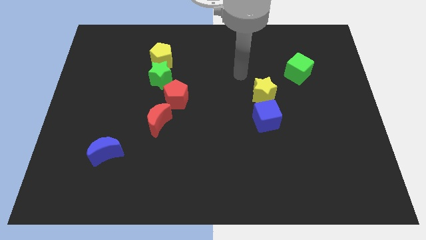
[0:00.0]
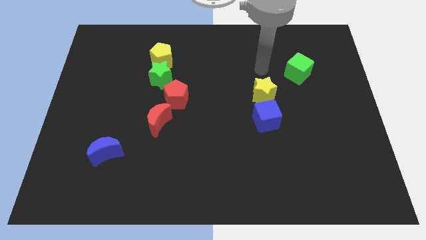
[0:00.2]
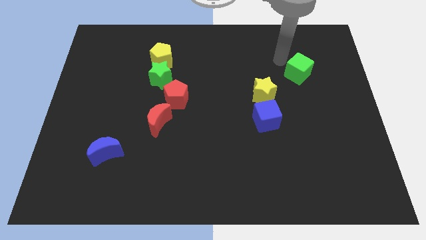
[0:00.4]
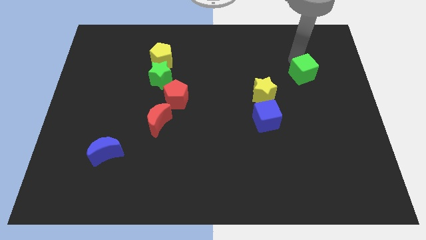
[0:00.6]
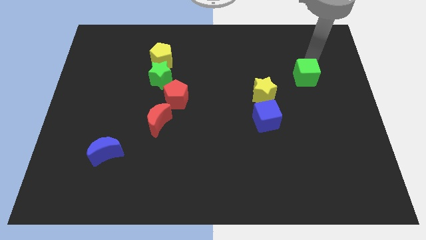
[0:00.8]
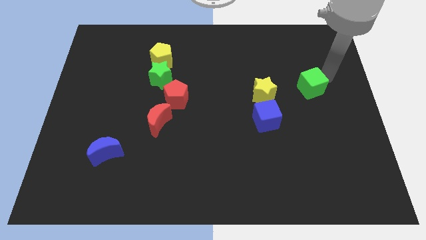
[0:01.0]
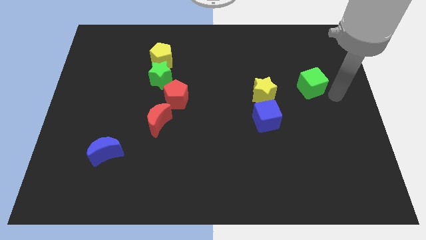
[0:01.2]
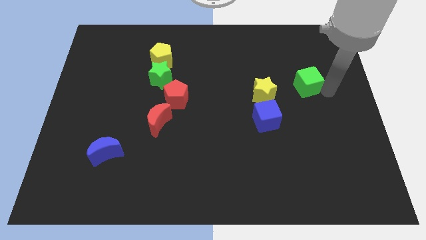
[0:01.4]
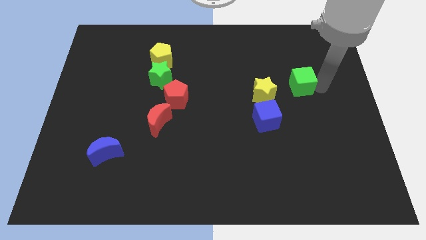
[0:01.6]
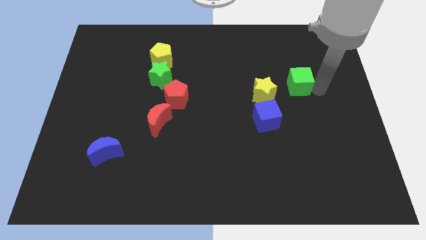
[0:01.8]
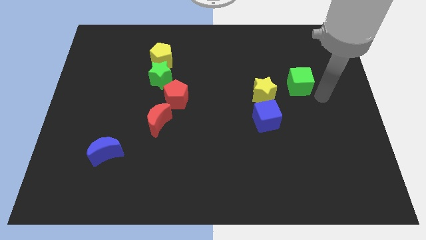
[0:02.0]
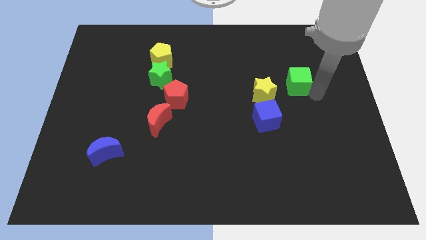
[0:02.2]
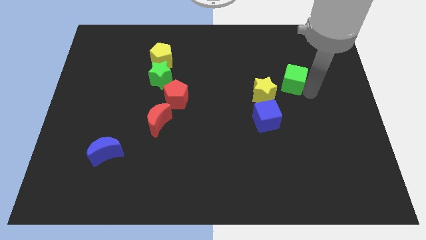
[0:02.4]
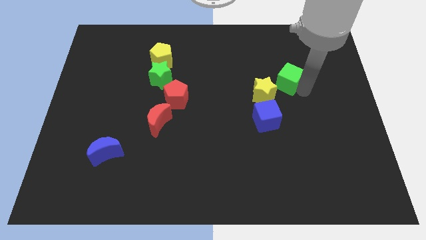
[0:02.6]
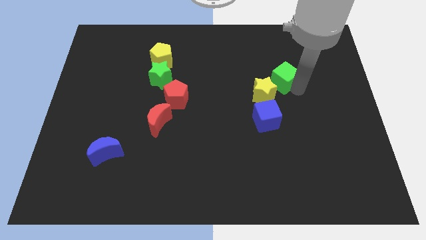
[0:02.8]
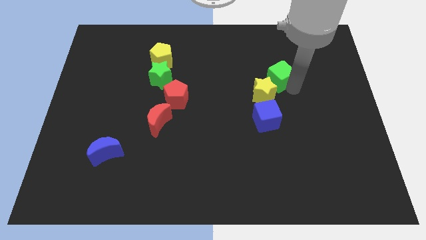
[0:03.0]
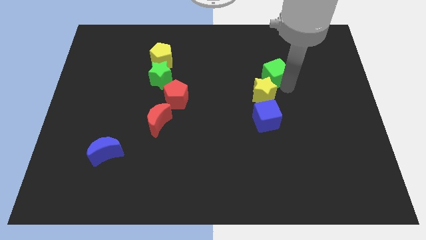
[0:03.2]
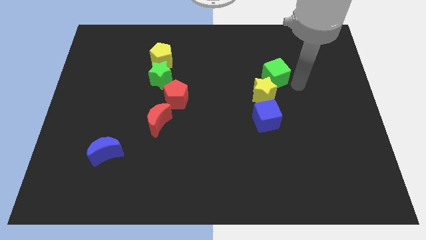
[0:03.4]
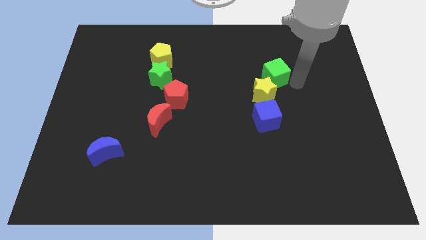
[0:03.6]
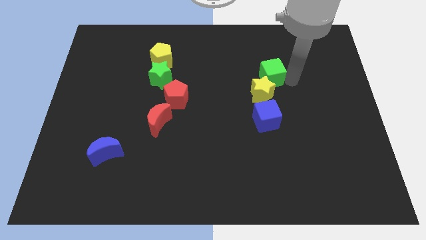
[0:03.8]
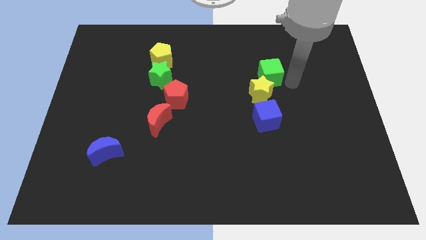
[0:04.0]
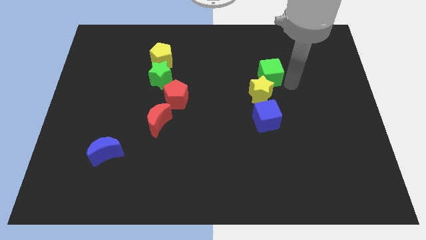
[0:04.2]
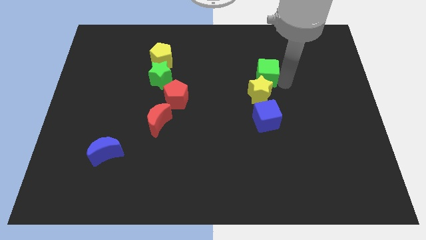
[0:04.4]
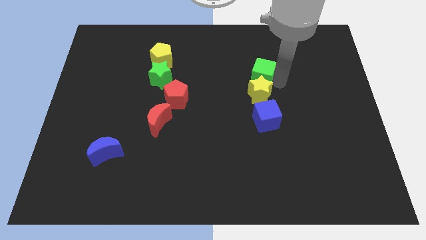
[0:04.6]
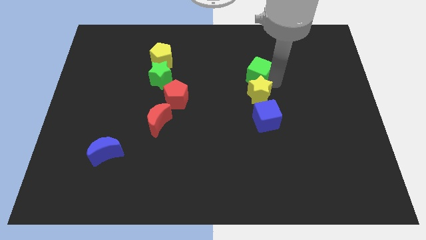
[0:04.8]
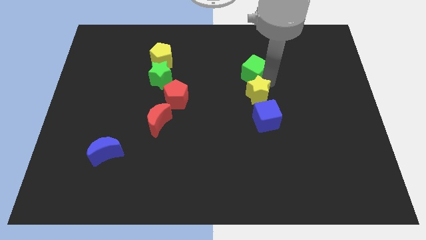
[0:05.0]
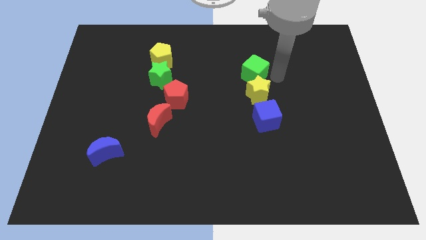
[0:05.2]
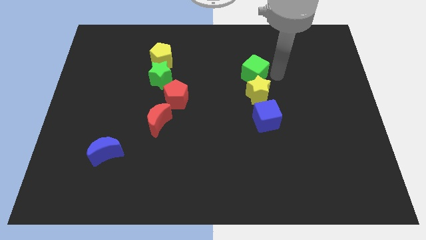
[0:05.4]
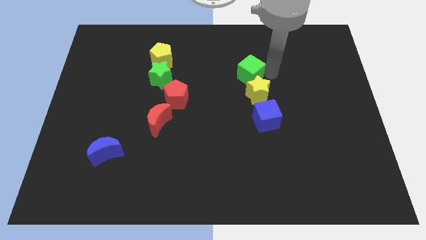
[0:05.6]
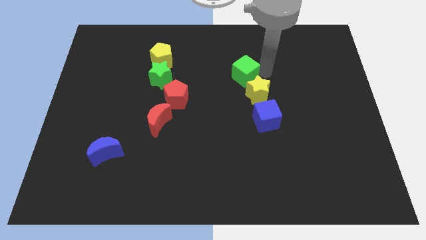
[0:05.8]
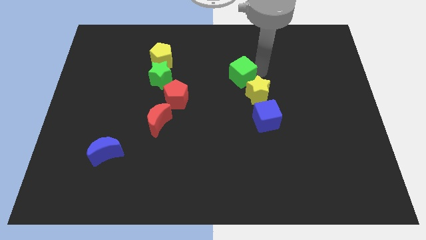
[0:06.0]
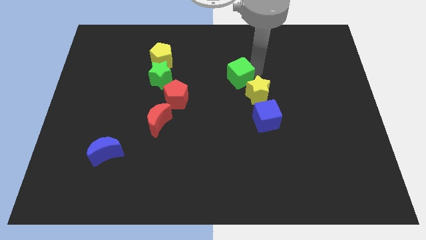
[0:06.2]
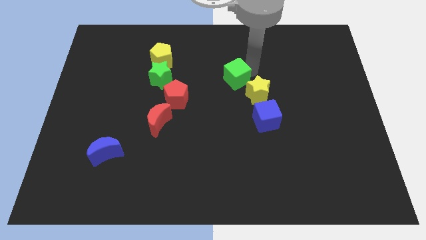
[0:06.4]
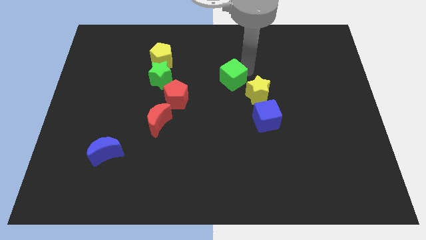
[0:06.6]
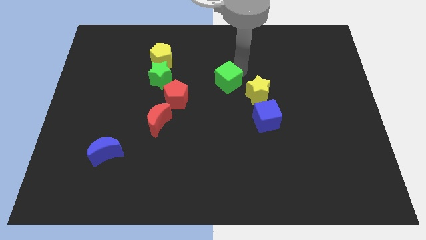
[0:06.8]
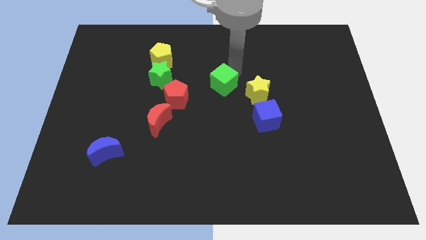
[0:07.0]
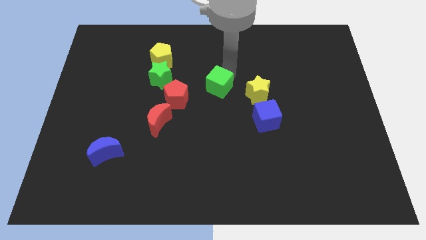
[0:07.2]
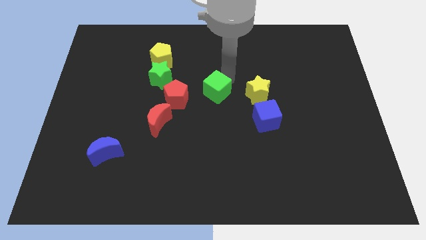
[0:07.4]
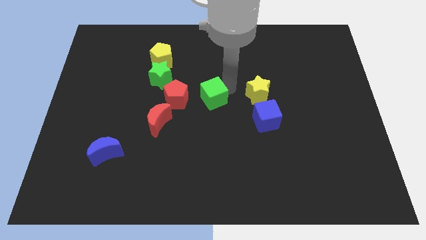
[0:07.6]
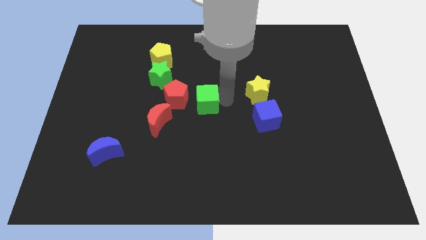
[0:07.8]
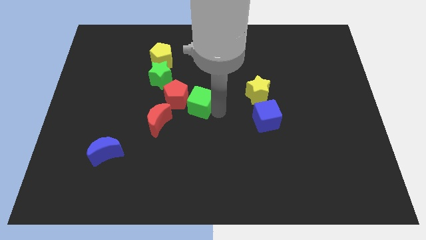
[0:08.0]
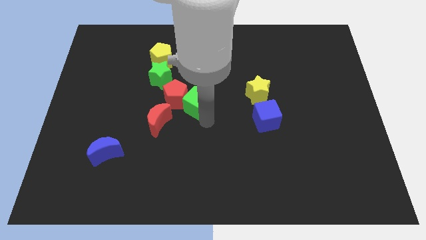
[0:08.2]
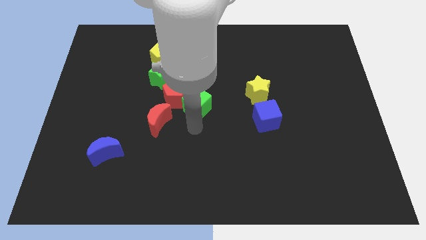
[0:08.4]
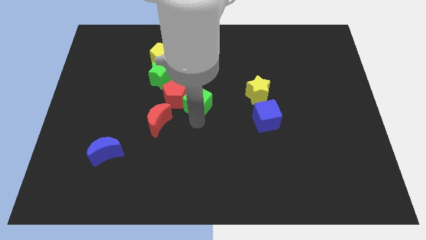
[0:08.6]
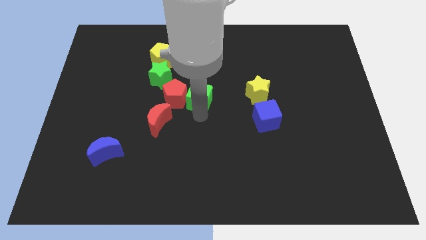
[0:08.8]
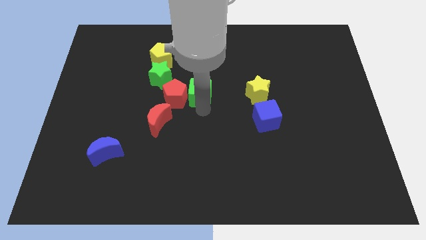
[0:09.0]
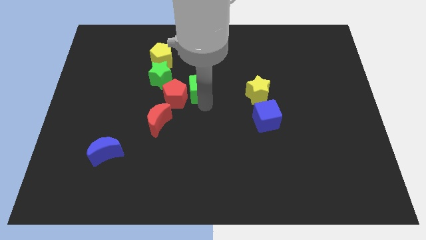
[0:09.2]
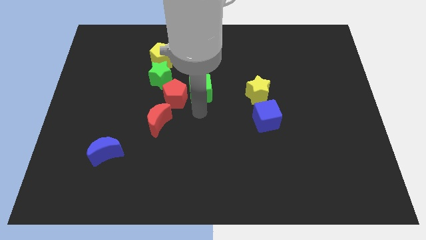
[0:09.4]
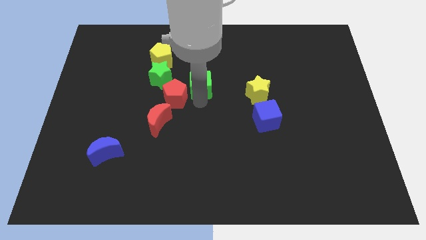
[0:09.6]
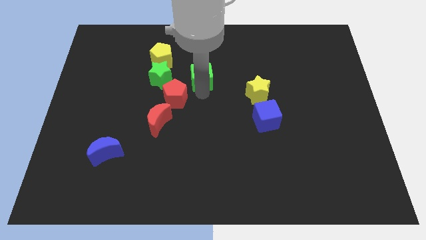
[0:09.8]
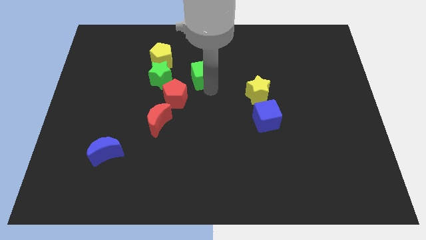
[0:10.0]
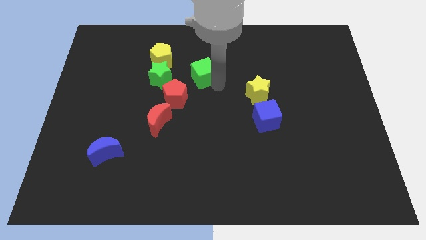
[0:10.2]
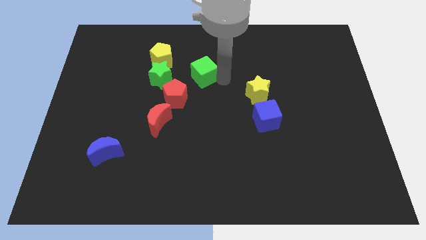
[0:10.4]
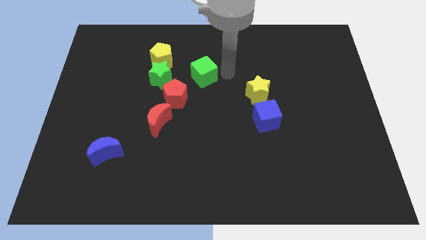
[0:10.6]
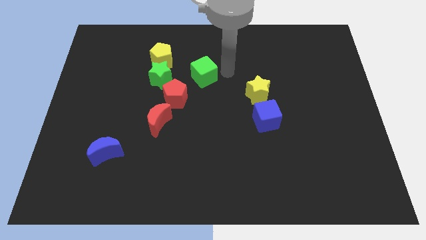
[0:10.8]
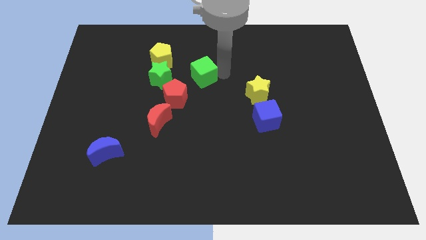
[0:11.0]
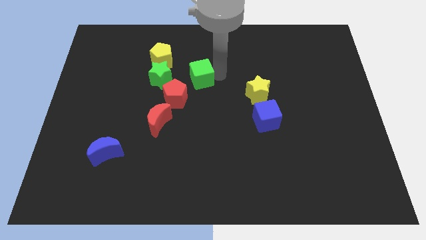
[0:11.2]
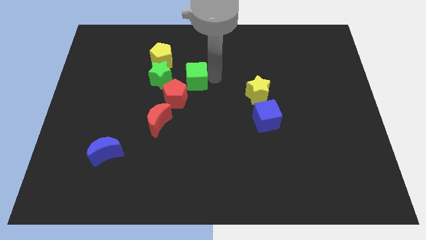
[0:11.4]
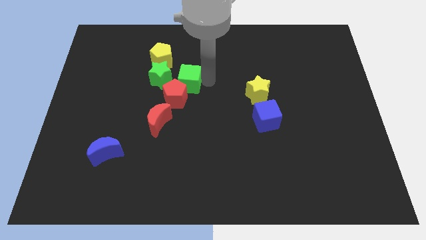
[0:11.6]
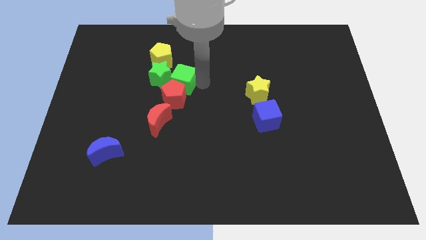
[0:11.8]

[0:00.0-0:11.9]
slide the green cube towards the green star

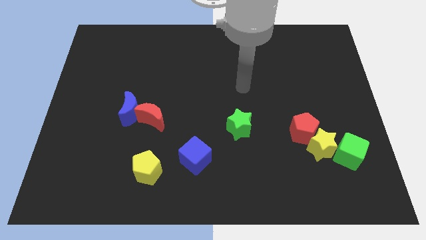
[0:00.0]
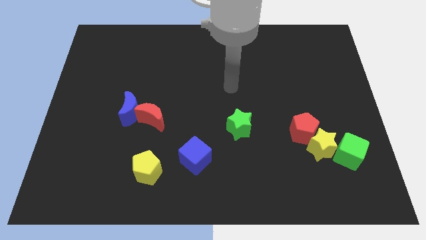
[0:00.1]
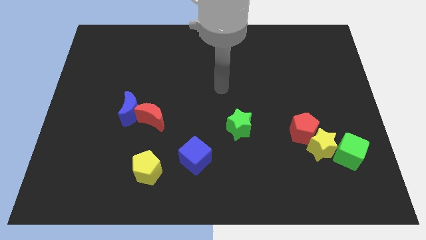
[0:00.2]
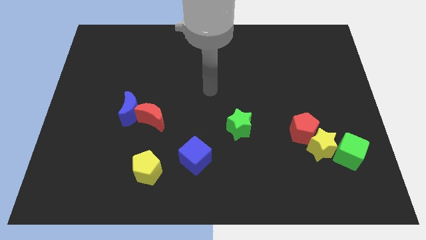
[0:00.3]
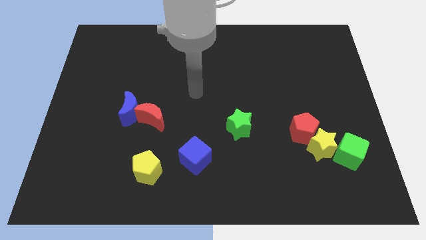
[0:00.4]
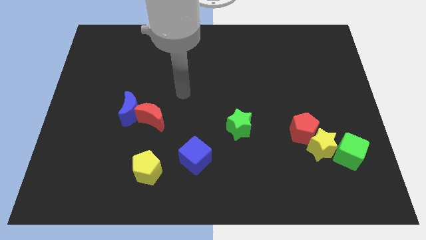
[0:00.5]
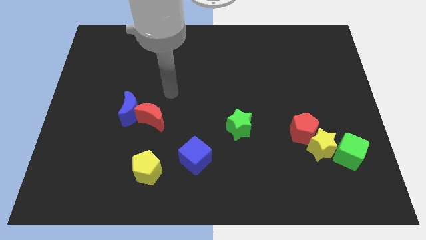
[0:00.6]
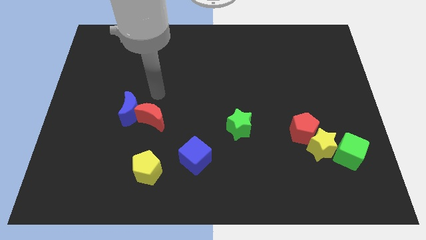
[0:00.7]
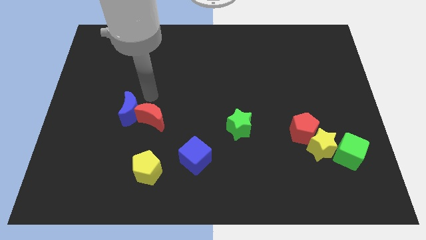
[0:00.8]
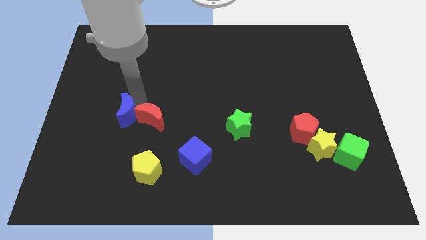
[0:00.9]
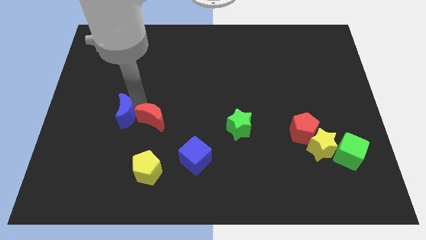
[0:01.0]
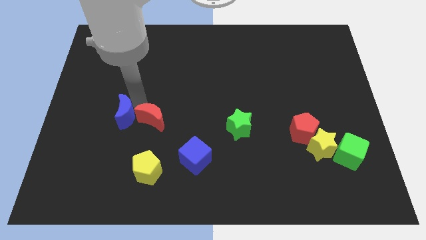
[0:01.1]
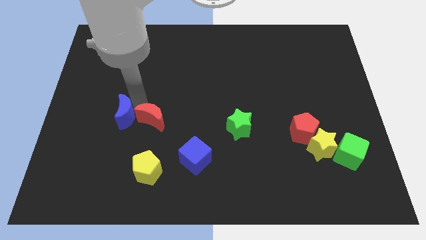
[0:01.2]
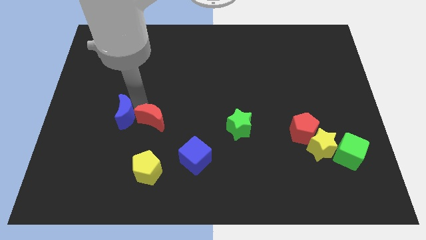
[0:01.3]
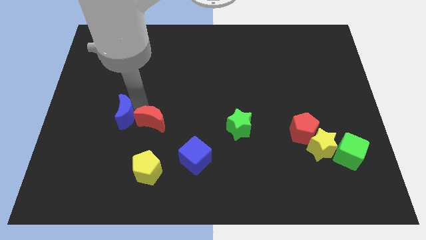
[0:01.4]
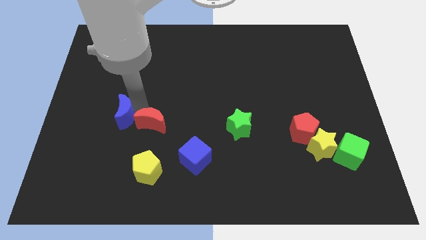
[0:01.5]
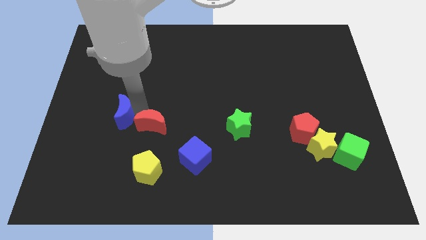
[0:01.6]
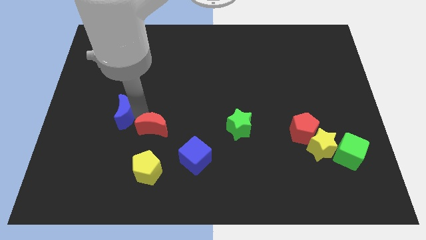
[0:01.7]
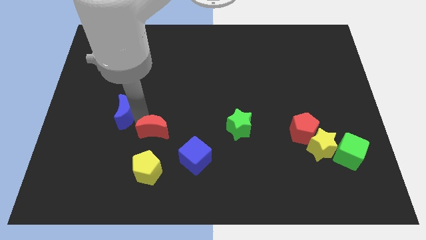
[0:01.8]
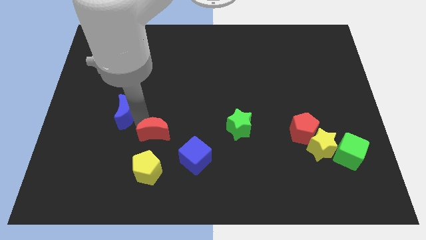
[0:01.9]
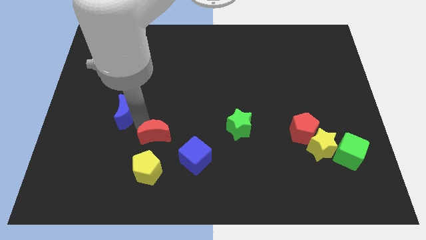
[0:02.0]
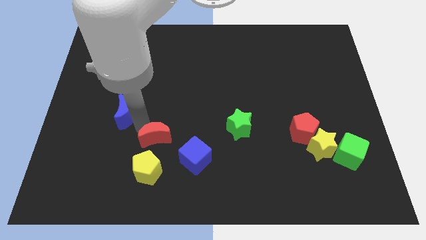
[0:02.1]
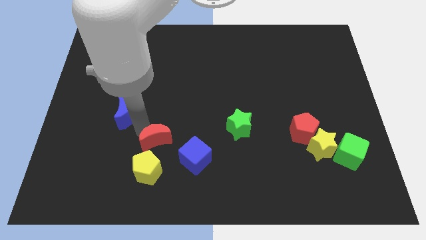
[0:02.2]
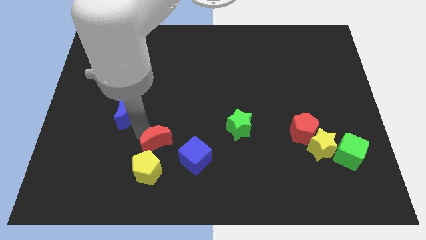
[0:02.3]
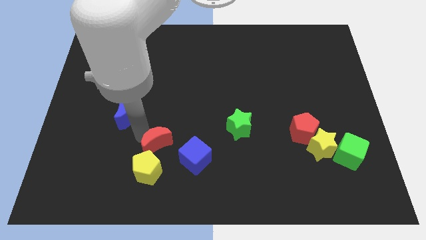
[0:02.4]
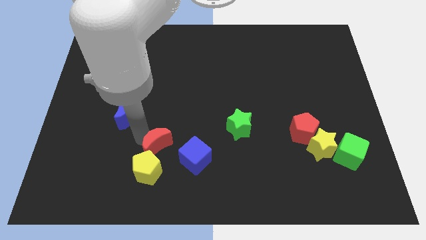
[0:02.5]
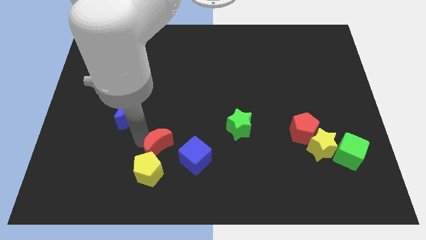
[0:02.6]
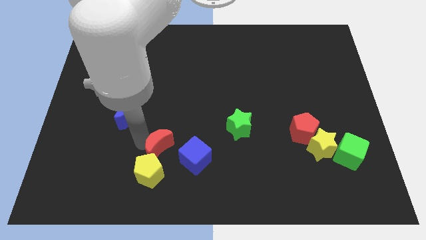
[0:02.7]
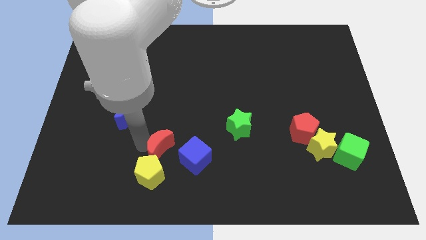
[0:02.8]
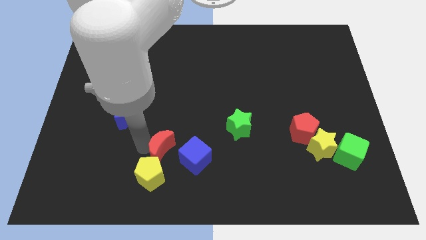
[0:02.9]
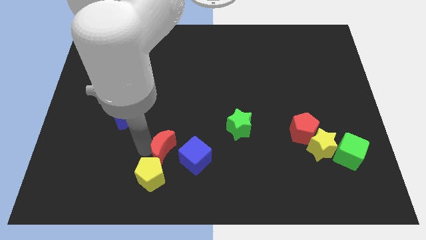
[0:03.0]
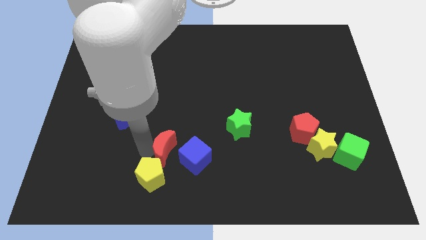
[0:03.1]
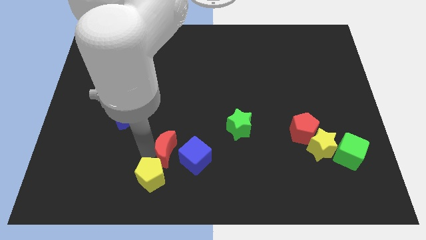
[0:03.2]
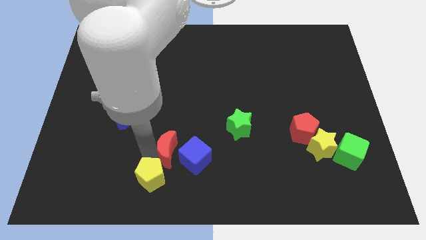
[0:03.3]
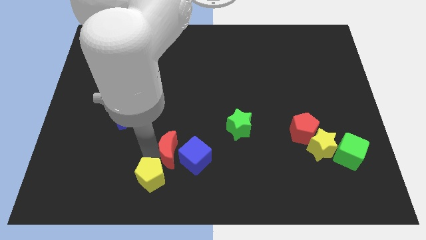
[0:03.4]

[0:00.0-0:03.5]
put the red moon towards the blue cube
